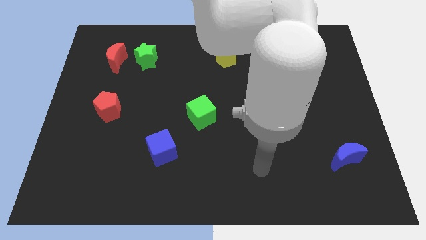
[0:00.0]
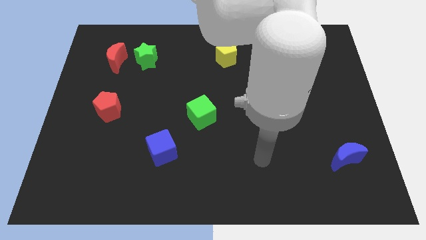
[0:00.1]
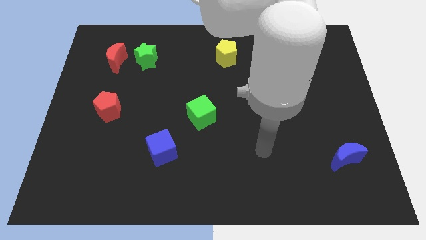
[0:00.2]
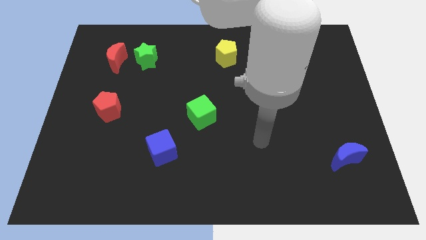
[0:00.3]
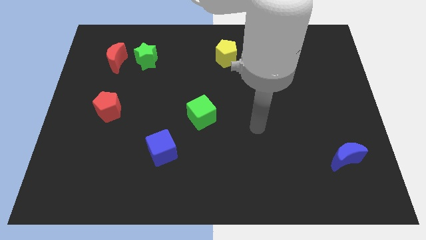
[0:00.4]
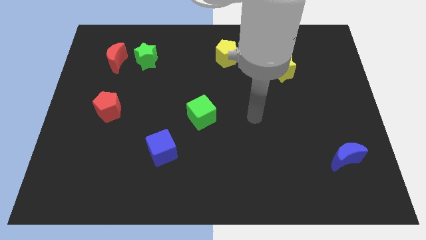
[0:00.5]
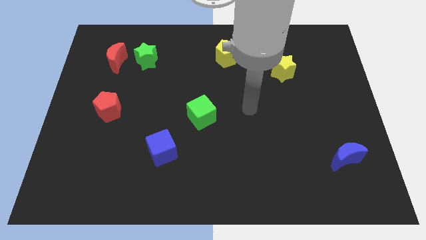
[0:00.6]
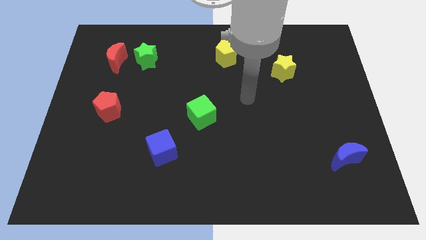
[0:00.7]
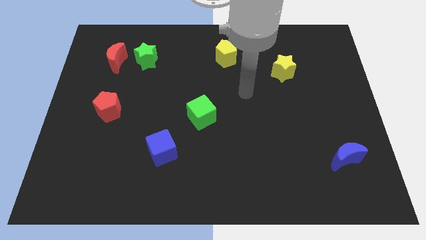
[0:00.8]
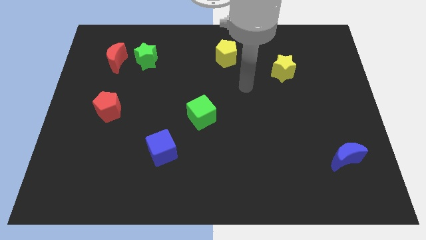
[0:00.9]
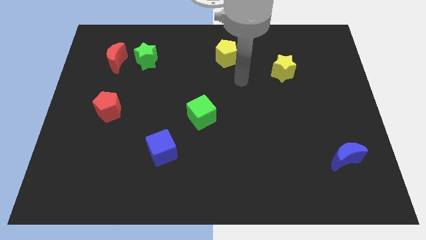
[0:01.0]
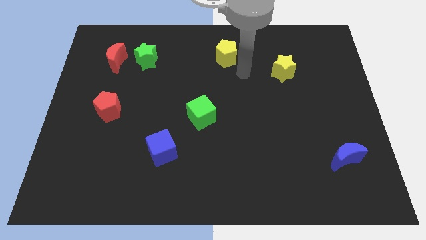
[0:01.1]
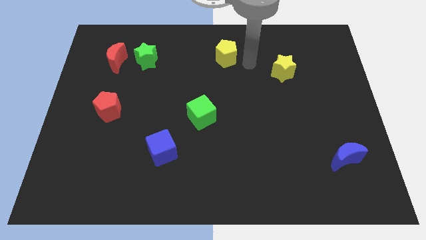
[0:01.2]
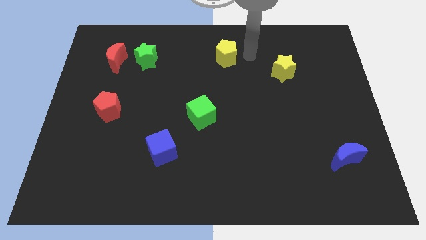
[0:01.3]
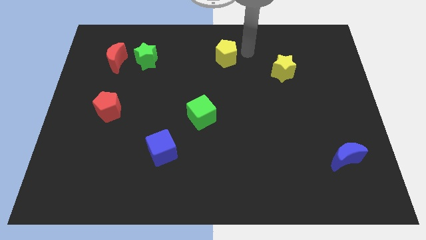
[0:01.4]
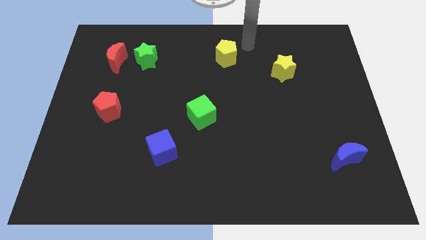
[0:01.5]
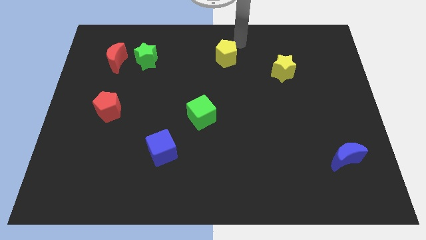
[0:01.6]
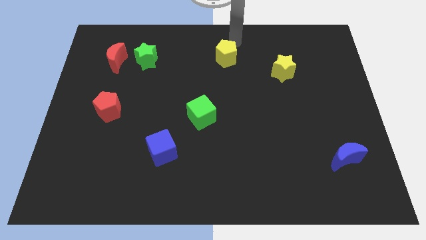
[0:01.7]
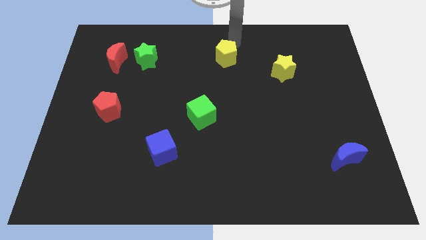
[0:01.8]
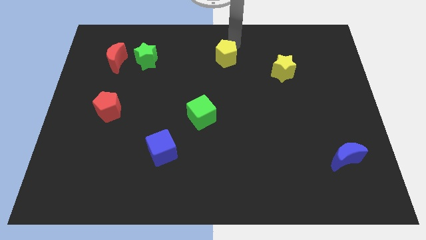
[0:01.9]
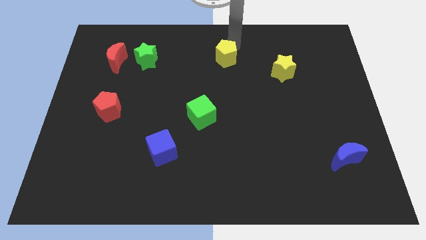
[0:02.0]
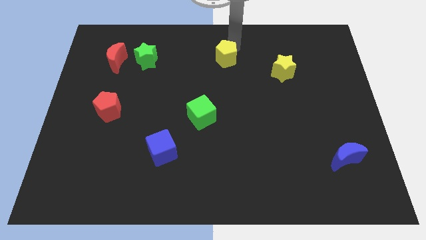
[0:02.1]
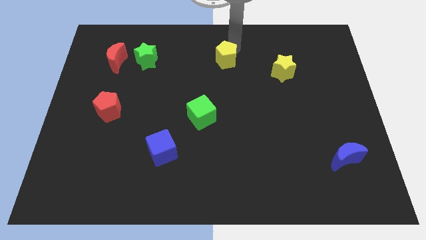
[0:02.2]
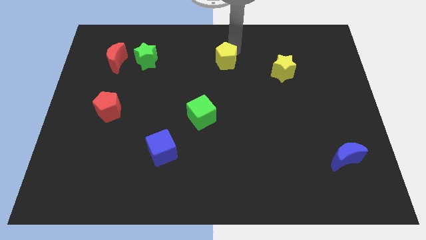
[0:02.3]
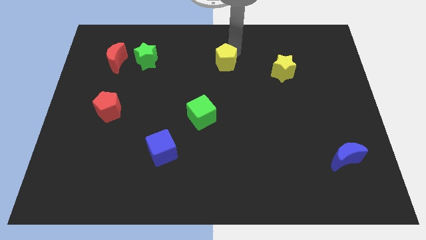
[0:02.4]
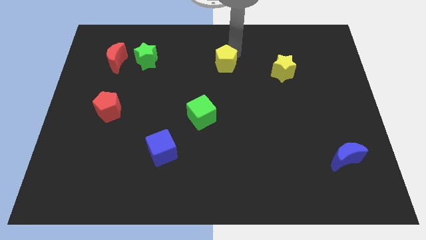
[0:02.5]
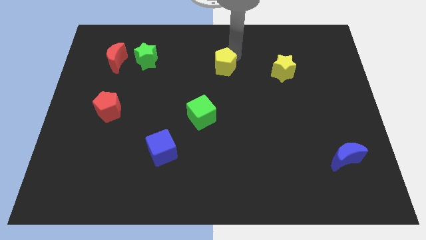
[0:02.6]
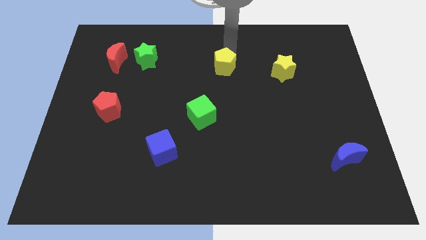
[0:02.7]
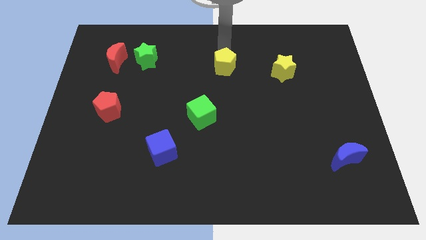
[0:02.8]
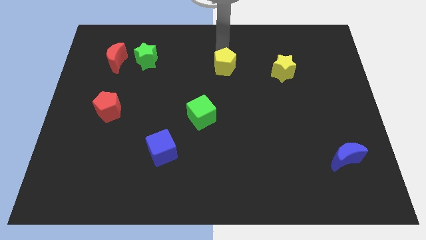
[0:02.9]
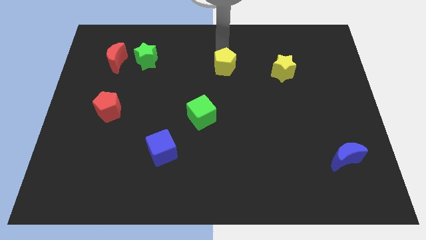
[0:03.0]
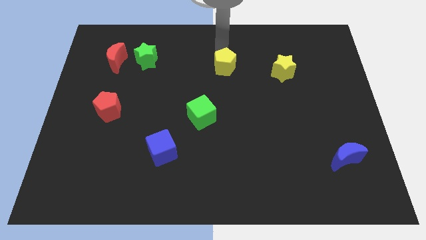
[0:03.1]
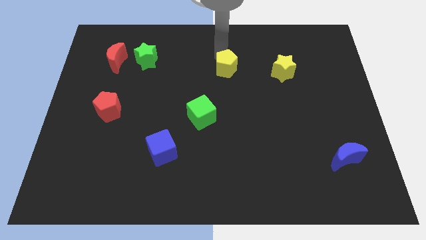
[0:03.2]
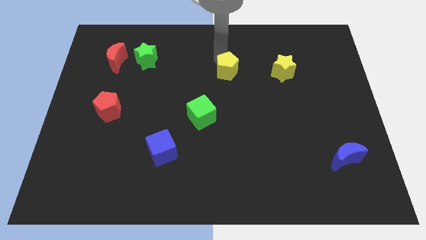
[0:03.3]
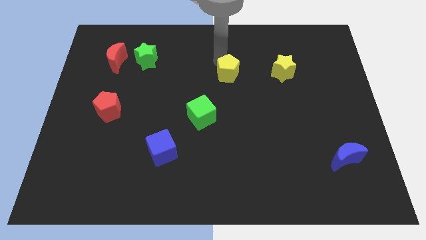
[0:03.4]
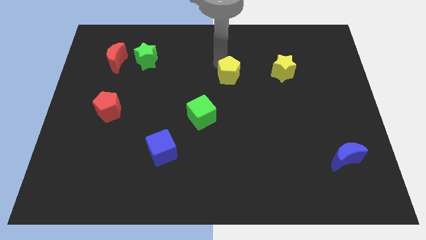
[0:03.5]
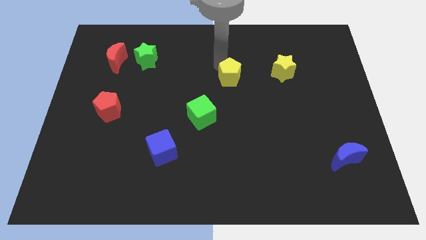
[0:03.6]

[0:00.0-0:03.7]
slightly slide the yellow pentagon downwards

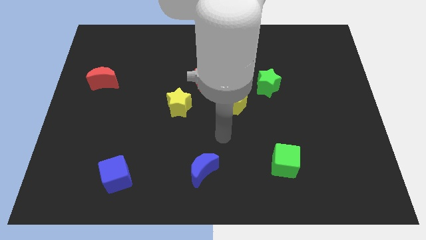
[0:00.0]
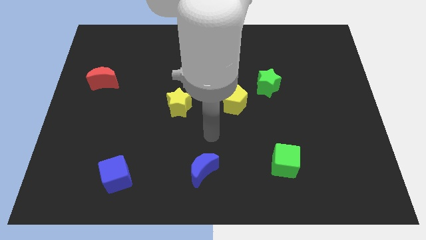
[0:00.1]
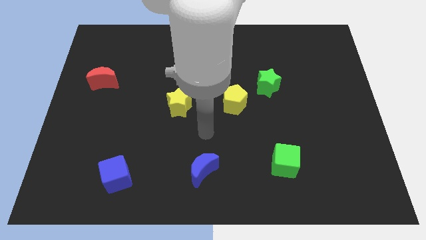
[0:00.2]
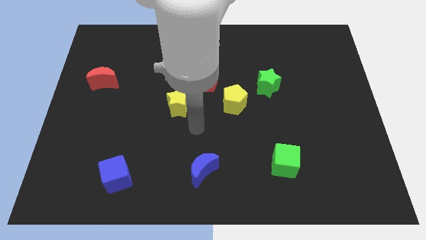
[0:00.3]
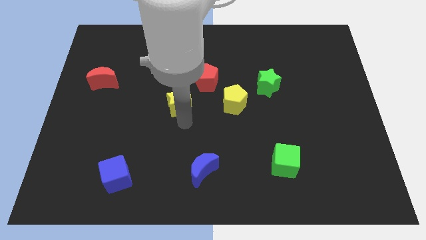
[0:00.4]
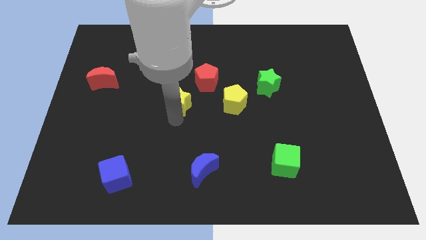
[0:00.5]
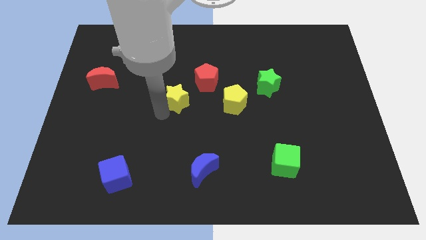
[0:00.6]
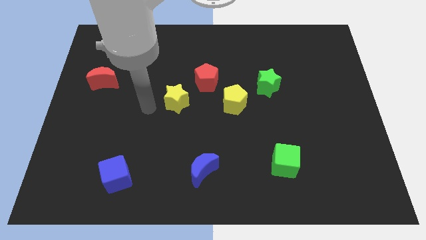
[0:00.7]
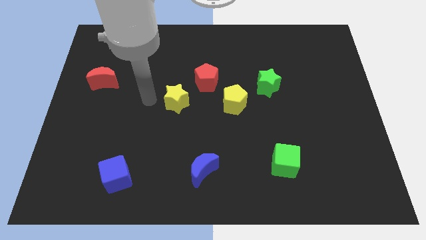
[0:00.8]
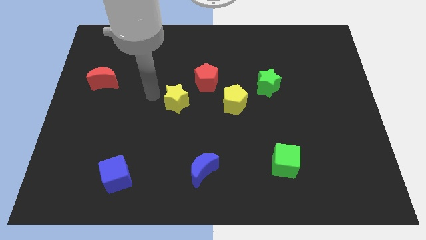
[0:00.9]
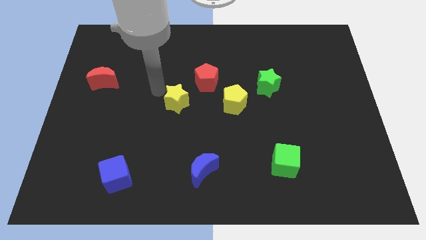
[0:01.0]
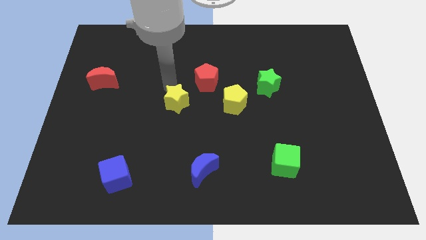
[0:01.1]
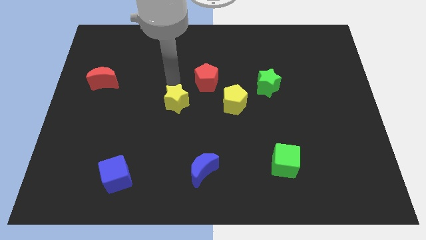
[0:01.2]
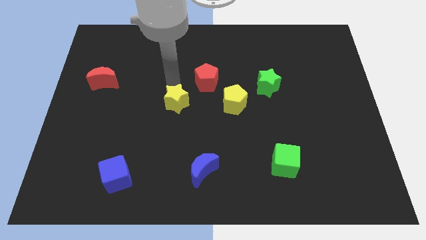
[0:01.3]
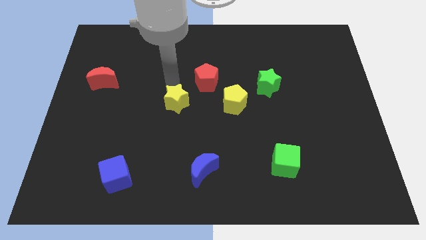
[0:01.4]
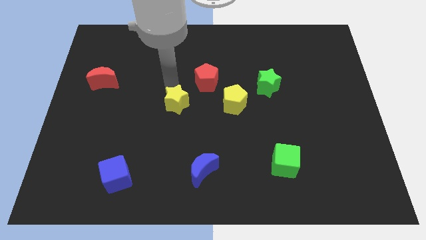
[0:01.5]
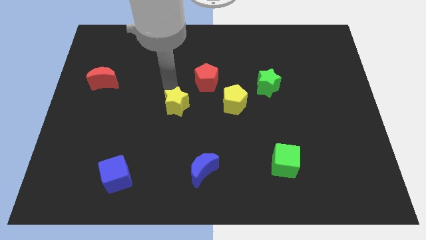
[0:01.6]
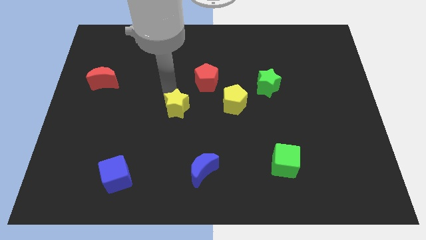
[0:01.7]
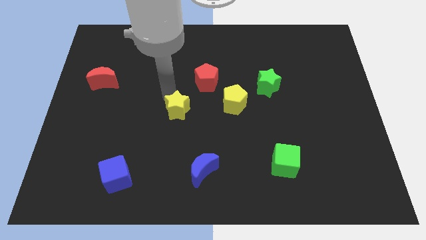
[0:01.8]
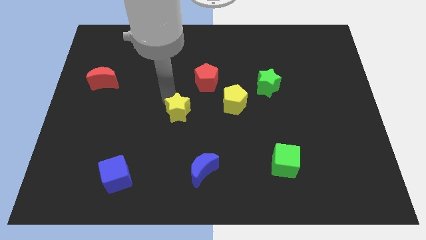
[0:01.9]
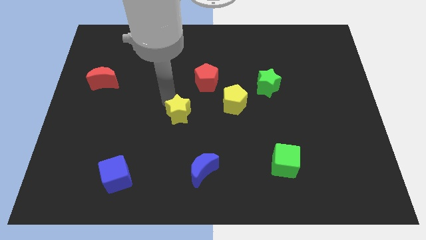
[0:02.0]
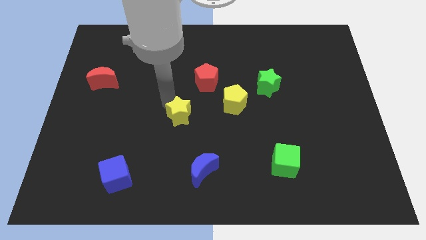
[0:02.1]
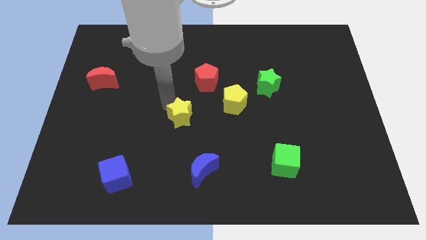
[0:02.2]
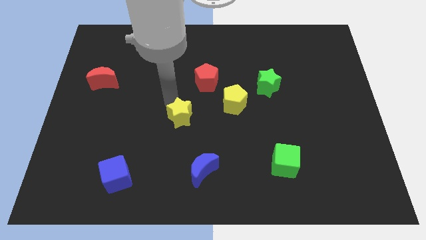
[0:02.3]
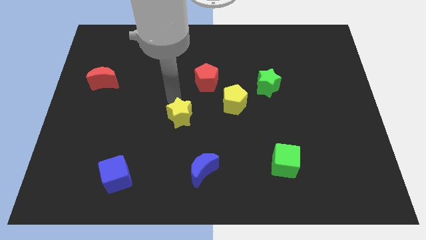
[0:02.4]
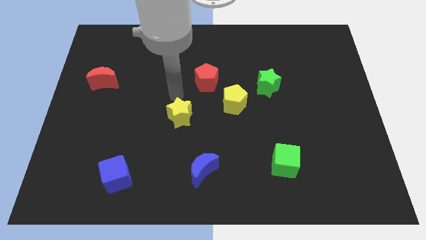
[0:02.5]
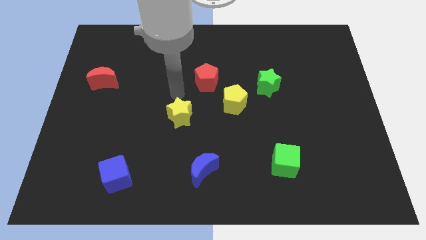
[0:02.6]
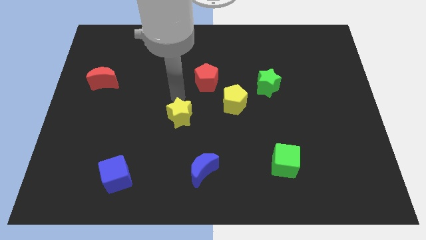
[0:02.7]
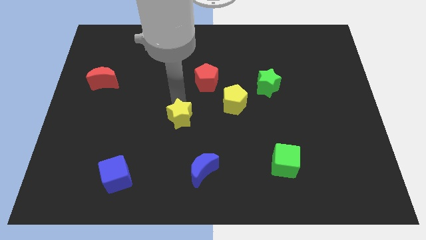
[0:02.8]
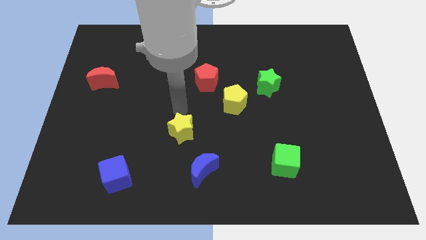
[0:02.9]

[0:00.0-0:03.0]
slide the yellow star a little bit downwards

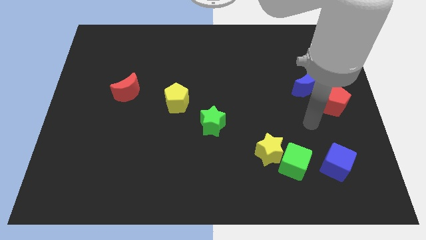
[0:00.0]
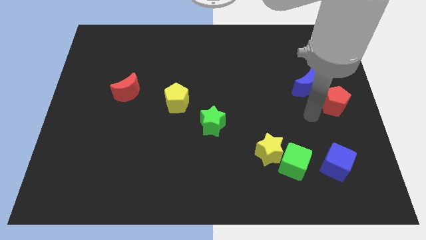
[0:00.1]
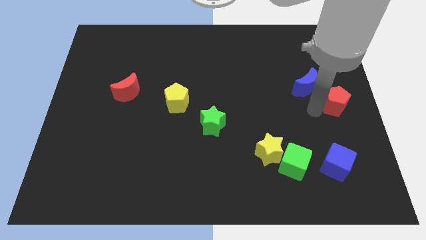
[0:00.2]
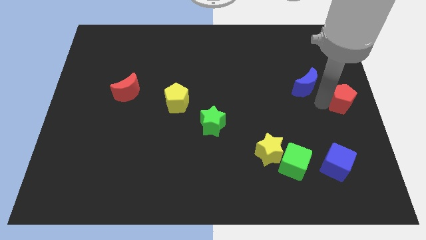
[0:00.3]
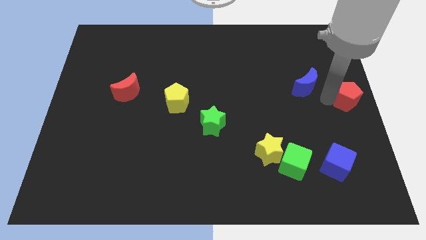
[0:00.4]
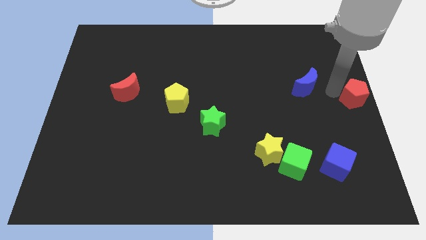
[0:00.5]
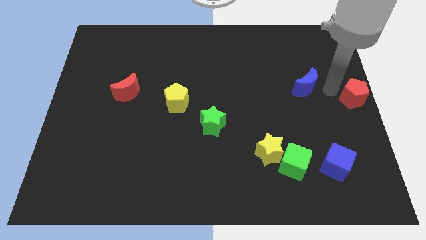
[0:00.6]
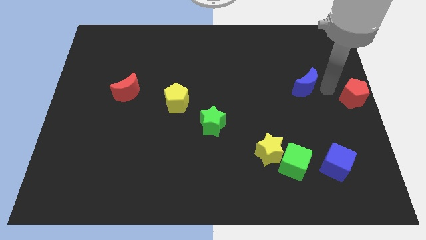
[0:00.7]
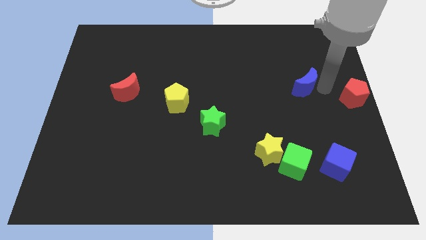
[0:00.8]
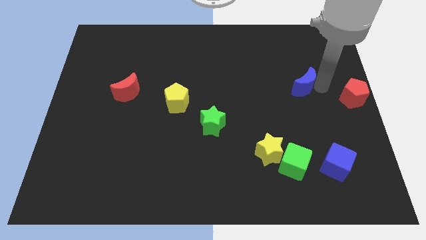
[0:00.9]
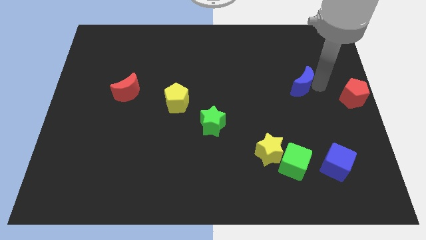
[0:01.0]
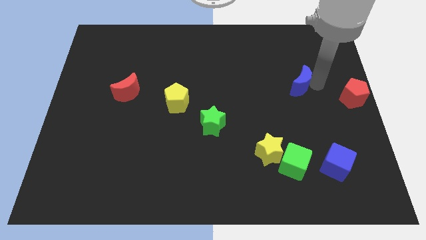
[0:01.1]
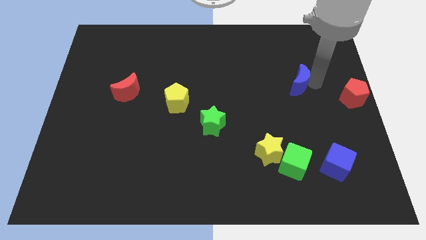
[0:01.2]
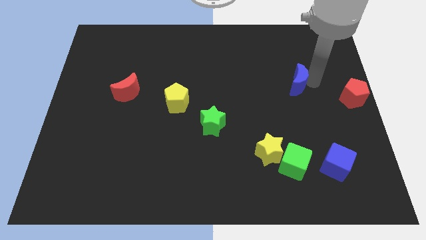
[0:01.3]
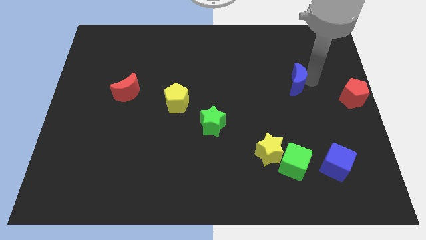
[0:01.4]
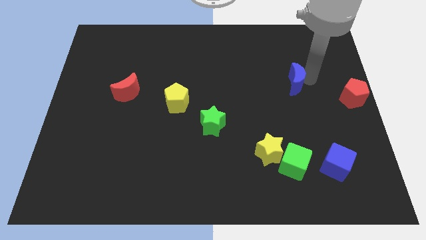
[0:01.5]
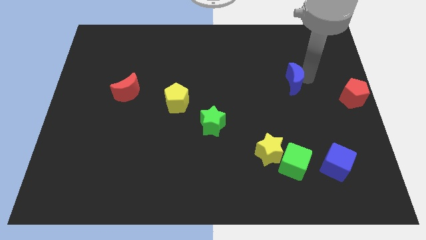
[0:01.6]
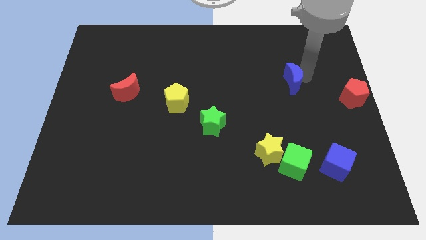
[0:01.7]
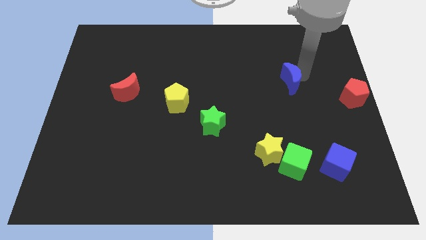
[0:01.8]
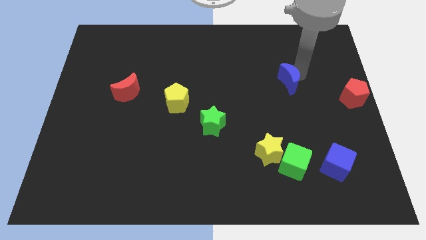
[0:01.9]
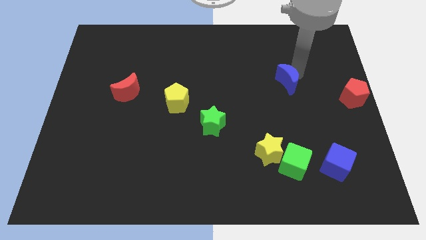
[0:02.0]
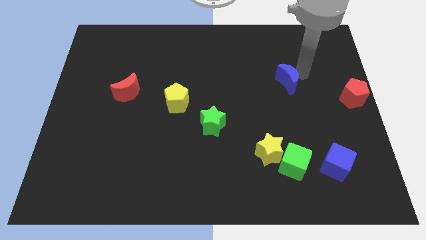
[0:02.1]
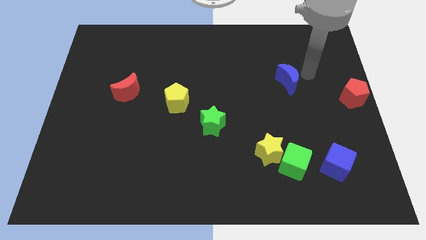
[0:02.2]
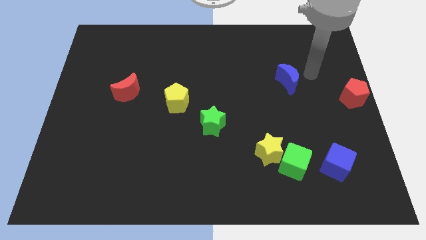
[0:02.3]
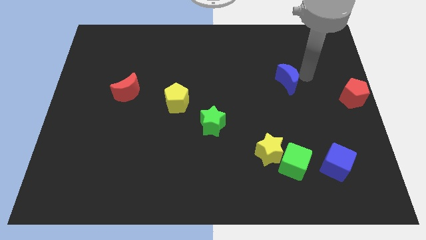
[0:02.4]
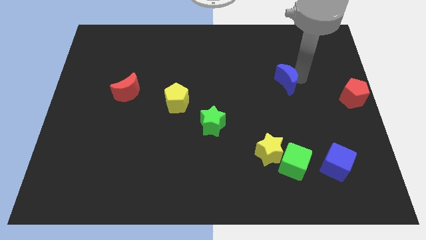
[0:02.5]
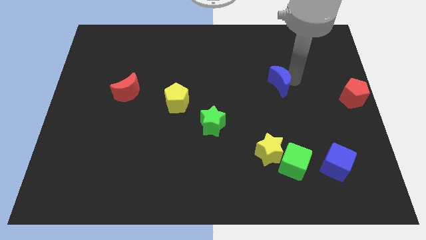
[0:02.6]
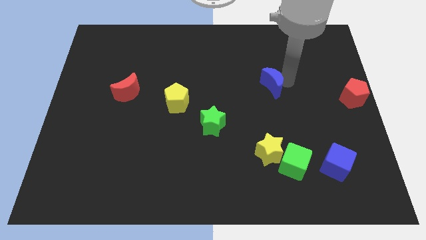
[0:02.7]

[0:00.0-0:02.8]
move the blue moon to the left slightly
